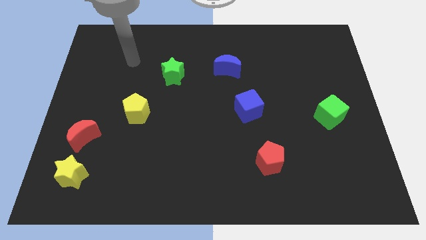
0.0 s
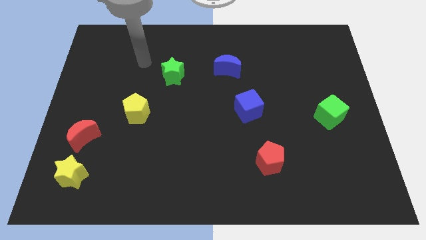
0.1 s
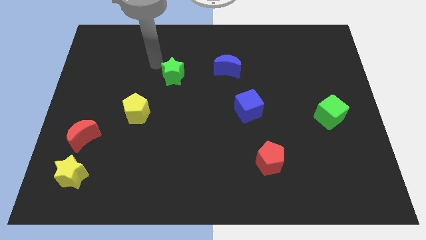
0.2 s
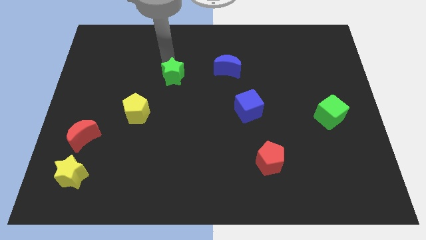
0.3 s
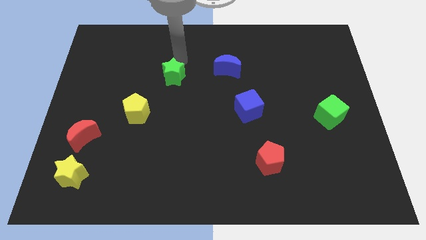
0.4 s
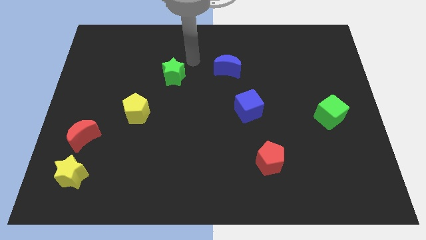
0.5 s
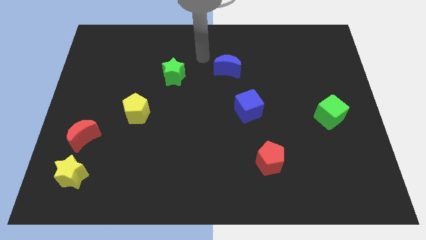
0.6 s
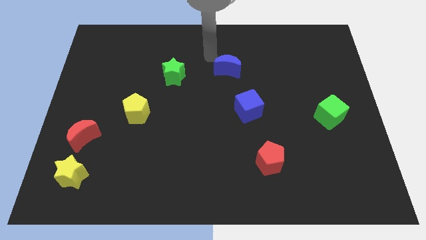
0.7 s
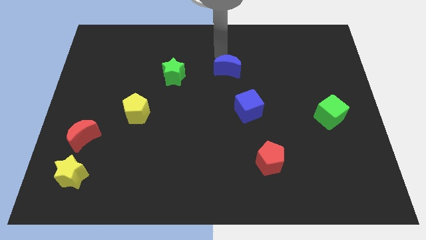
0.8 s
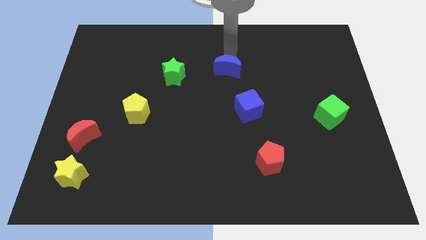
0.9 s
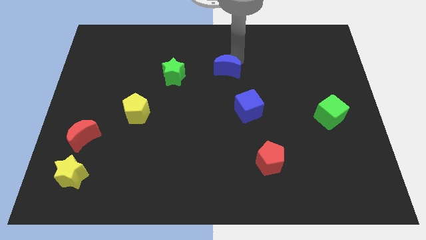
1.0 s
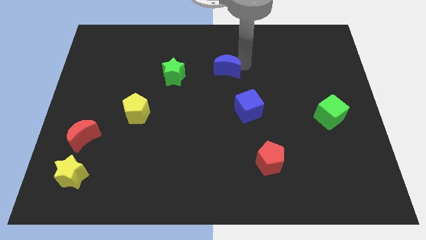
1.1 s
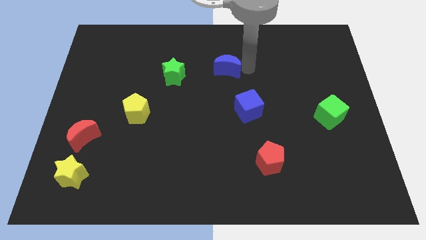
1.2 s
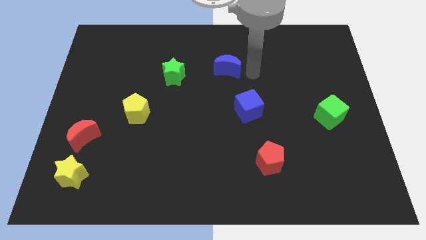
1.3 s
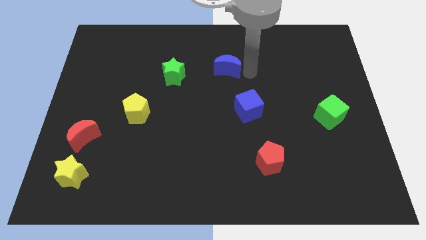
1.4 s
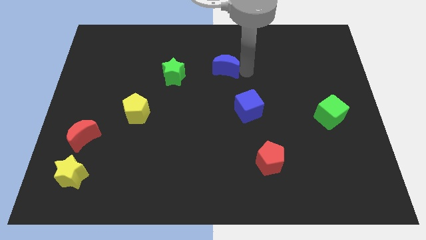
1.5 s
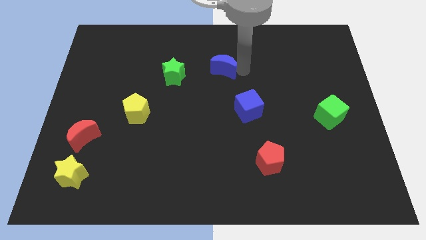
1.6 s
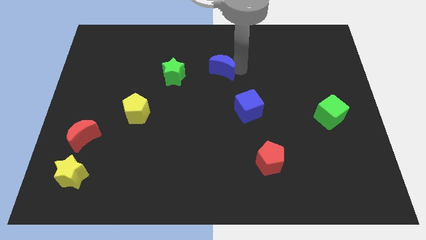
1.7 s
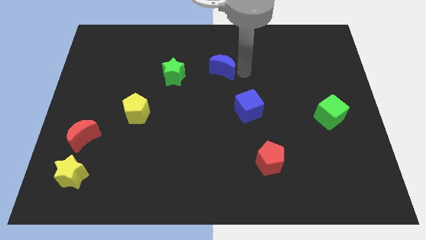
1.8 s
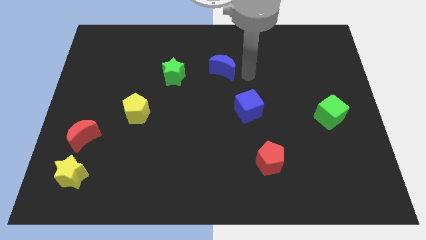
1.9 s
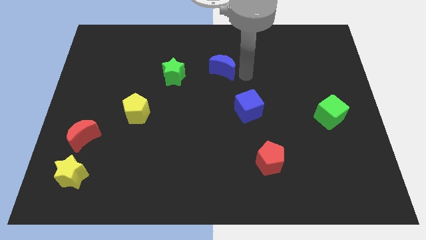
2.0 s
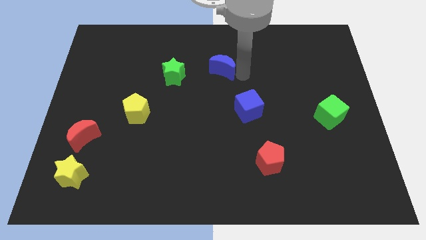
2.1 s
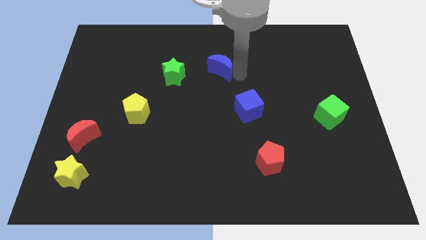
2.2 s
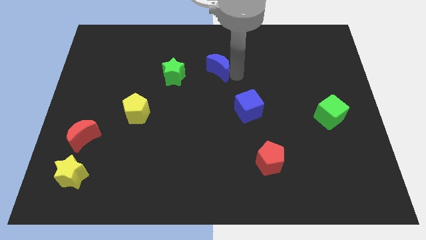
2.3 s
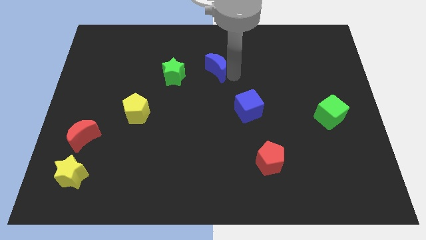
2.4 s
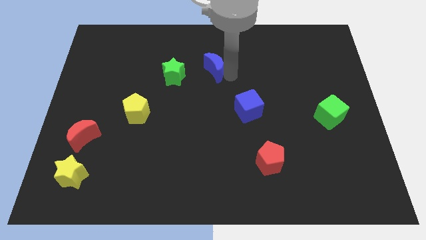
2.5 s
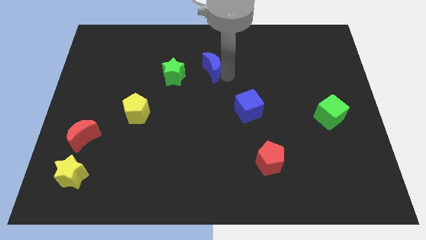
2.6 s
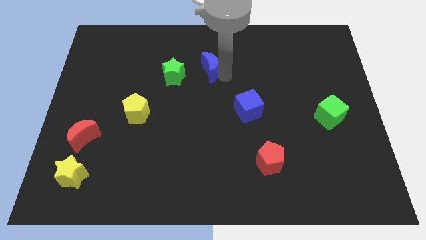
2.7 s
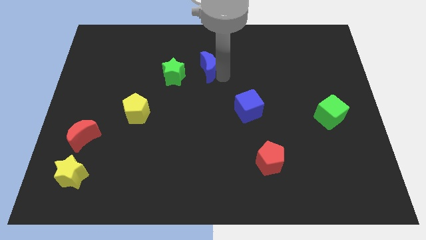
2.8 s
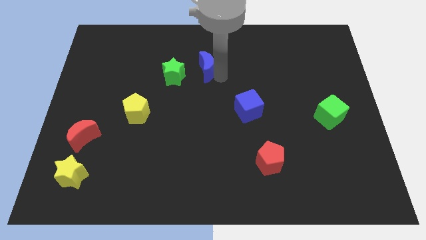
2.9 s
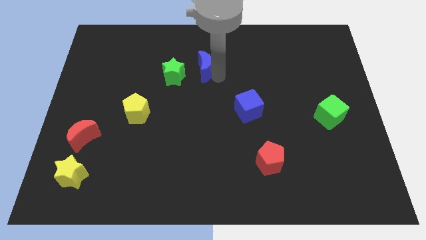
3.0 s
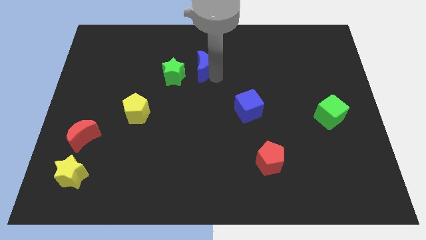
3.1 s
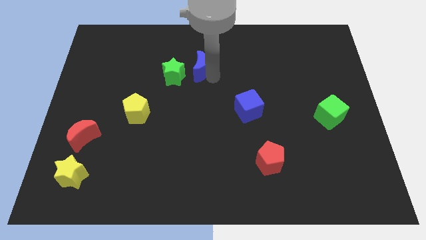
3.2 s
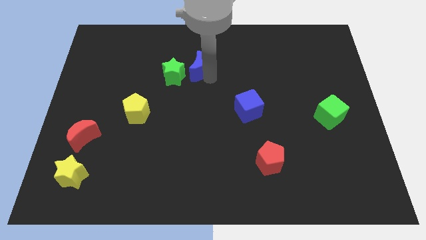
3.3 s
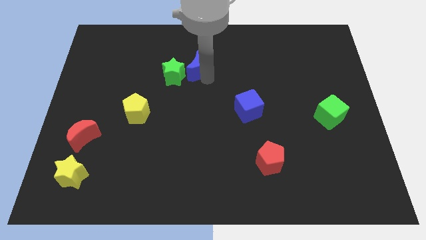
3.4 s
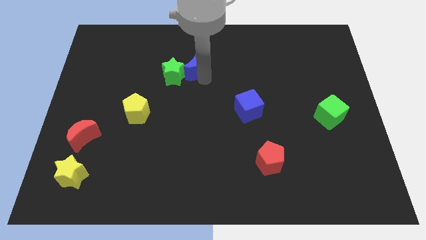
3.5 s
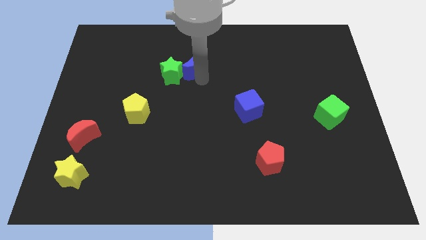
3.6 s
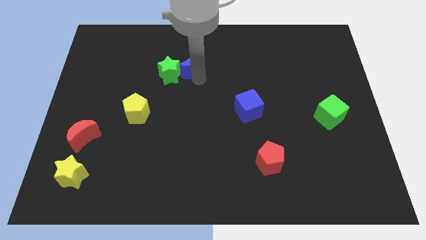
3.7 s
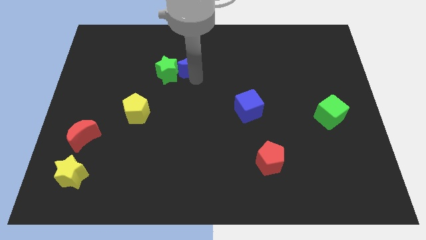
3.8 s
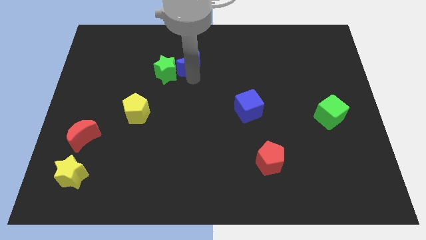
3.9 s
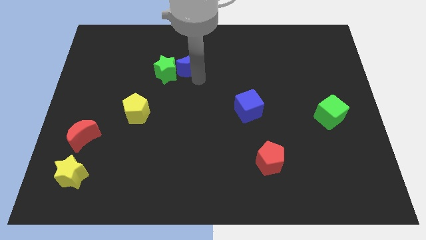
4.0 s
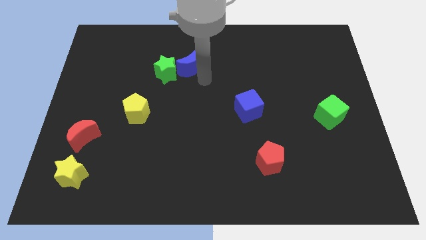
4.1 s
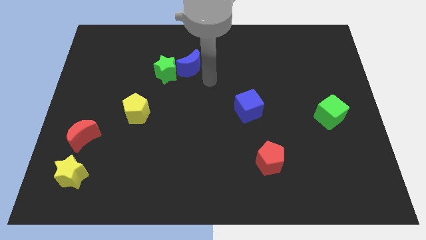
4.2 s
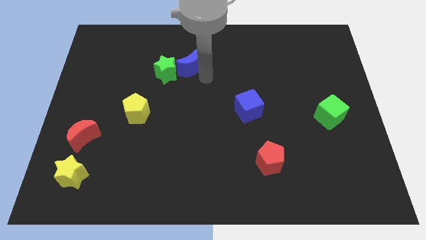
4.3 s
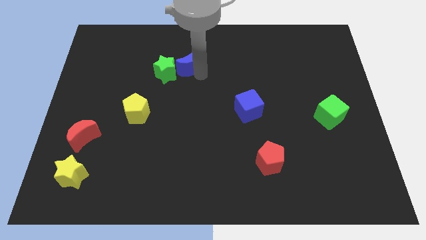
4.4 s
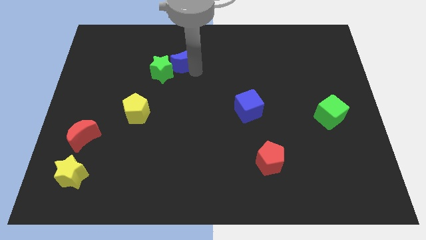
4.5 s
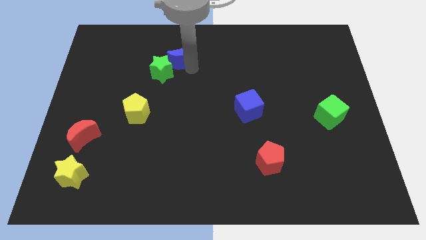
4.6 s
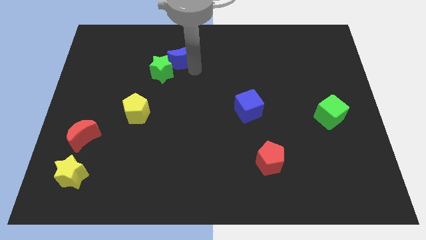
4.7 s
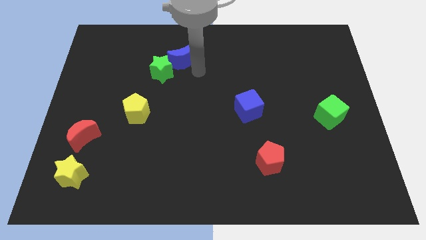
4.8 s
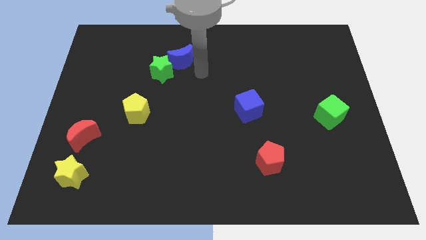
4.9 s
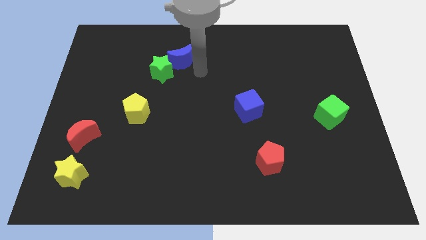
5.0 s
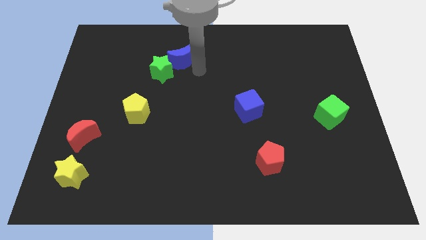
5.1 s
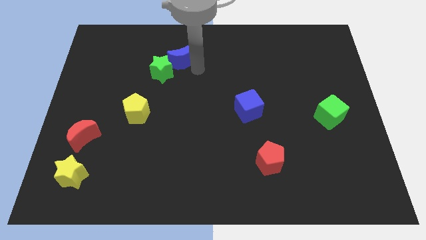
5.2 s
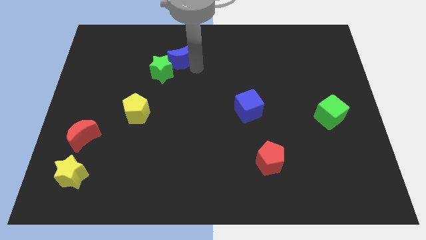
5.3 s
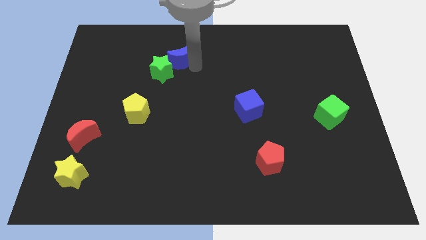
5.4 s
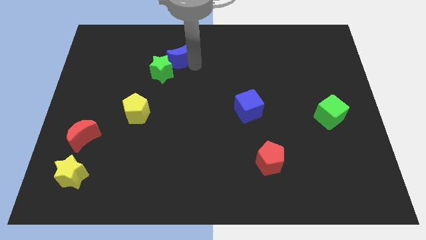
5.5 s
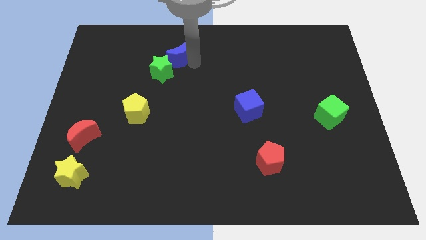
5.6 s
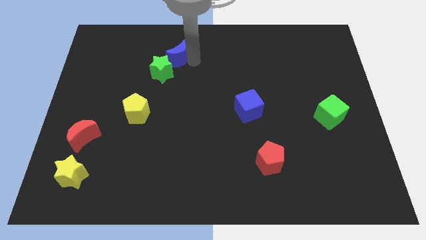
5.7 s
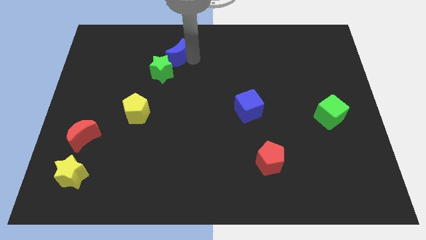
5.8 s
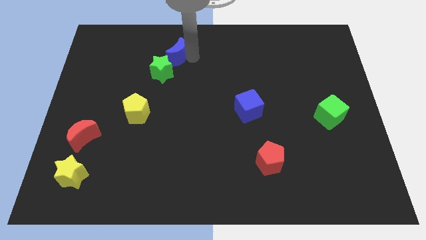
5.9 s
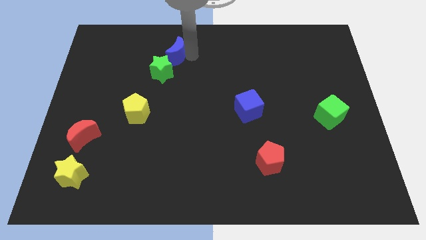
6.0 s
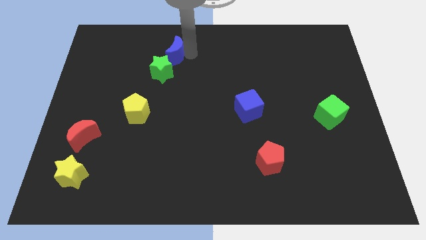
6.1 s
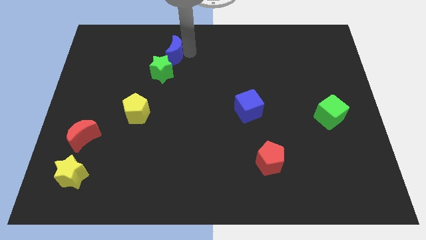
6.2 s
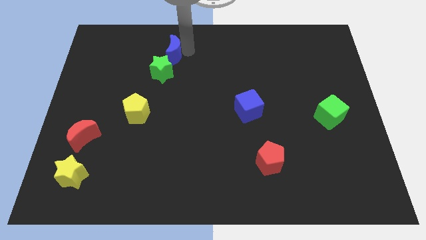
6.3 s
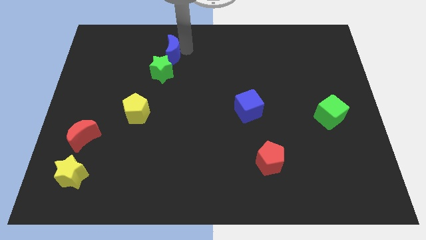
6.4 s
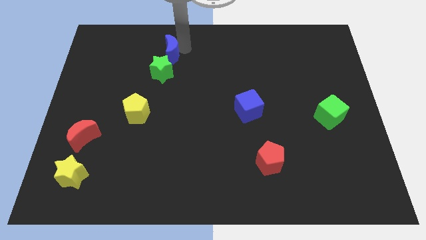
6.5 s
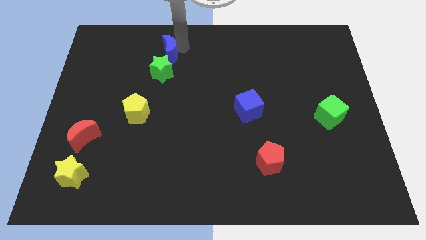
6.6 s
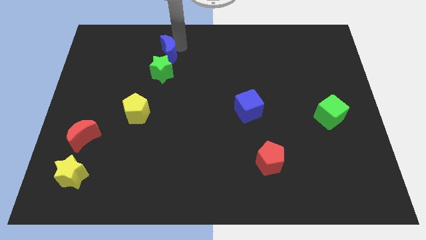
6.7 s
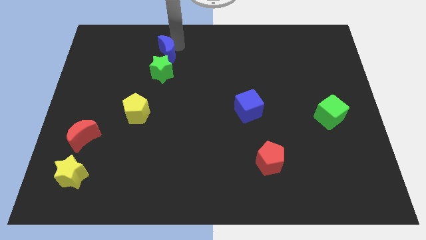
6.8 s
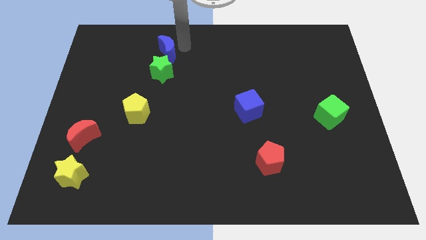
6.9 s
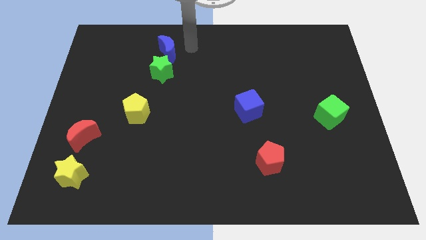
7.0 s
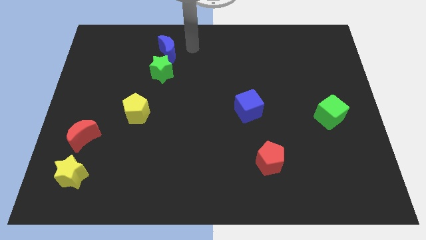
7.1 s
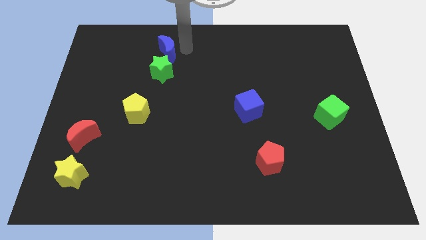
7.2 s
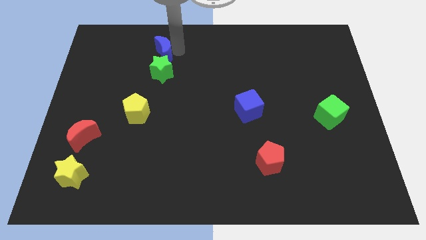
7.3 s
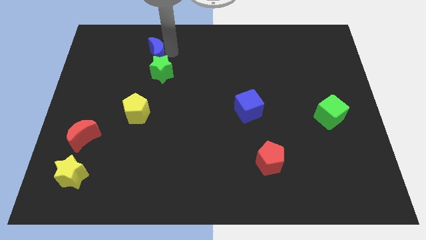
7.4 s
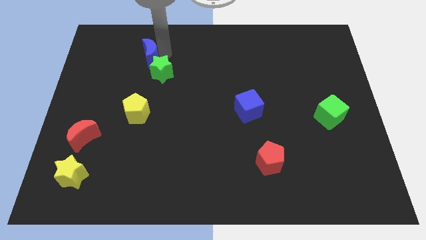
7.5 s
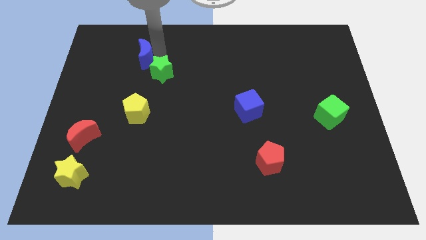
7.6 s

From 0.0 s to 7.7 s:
push the blue moon left

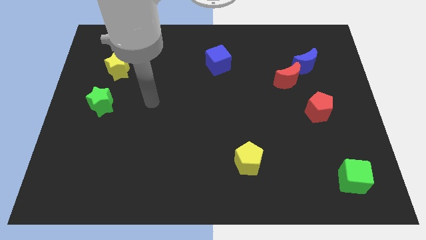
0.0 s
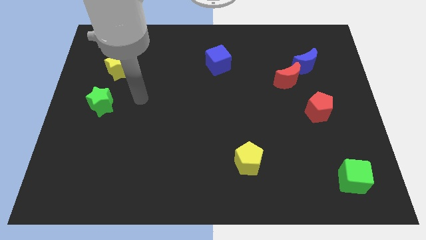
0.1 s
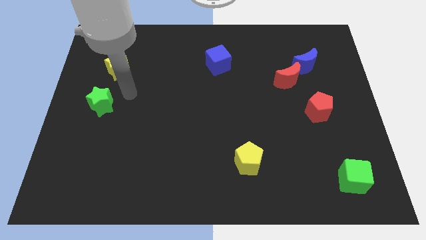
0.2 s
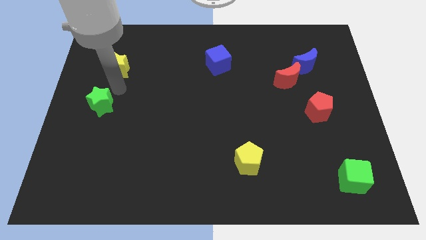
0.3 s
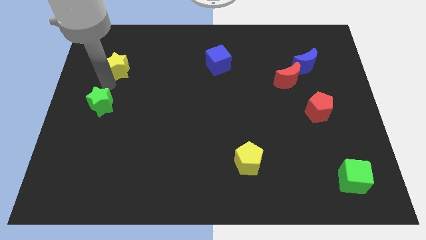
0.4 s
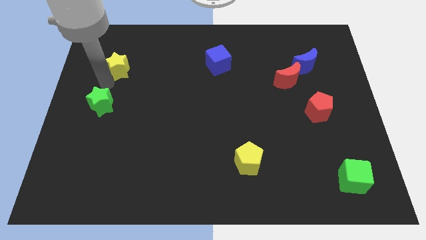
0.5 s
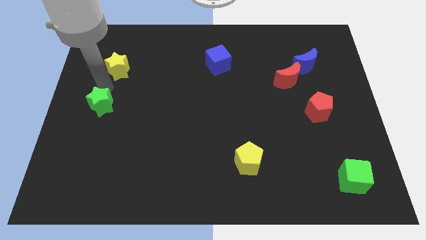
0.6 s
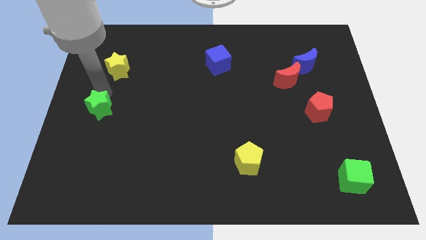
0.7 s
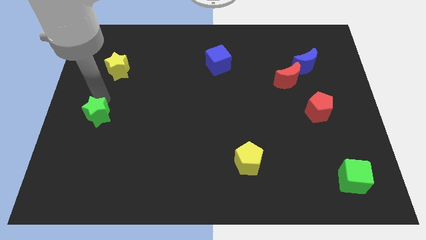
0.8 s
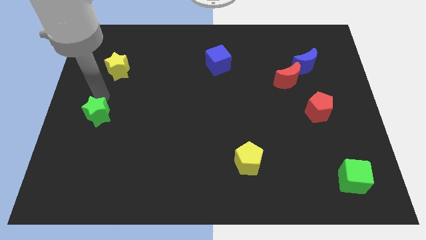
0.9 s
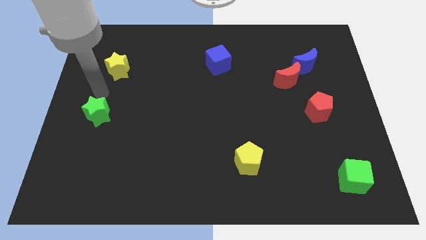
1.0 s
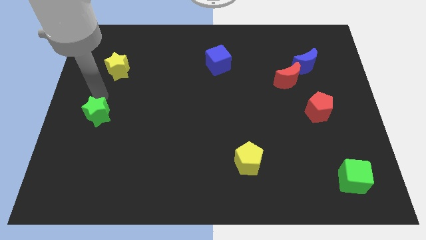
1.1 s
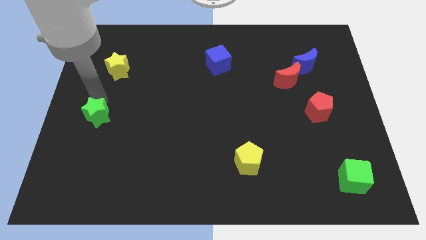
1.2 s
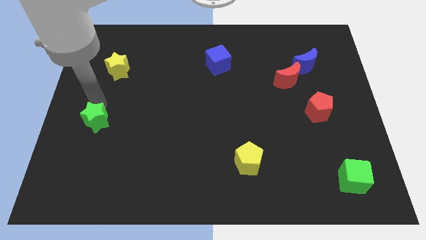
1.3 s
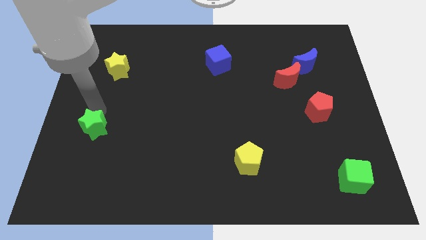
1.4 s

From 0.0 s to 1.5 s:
slide the green star a little downwards
